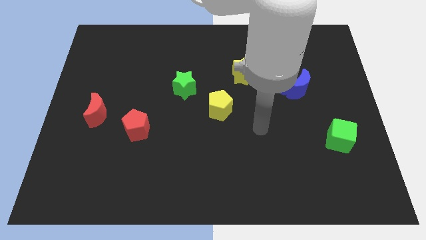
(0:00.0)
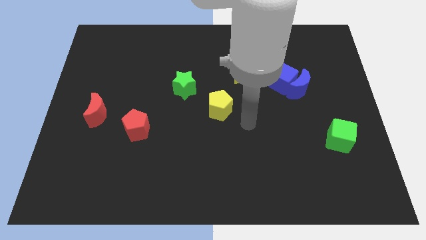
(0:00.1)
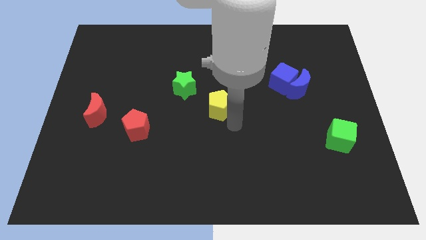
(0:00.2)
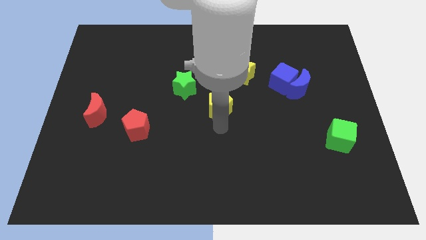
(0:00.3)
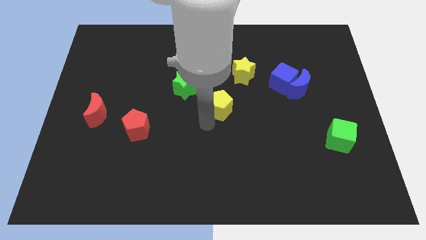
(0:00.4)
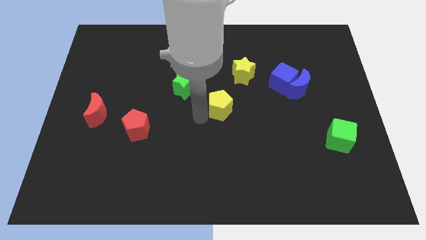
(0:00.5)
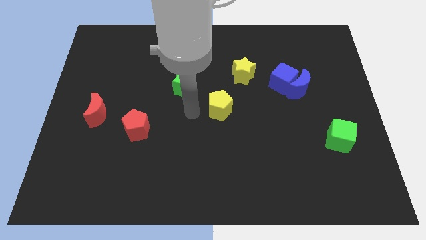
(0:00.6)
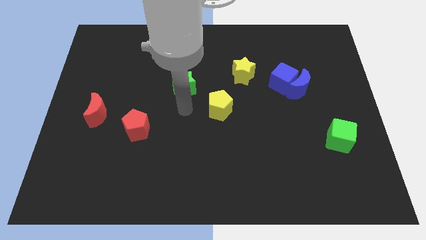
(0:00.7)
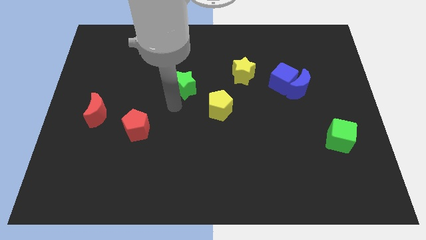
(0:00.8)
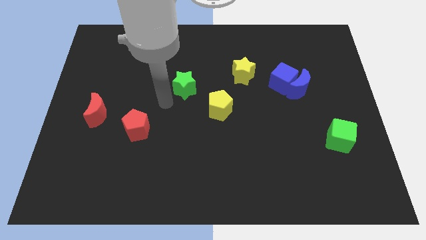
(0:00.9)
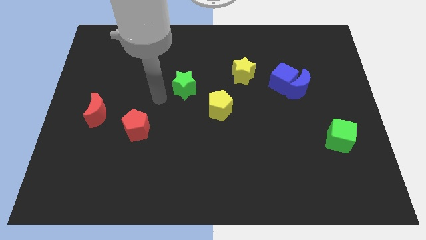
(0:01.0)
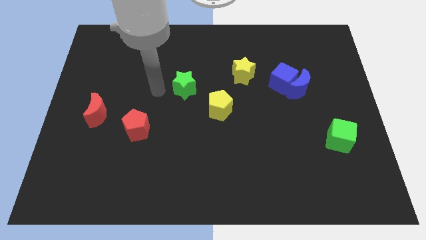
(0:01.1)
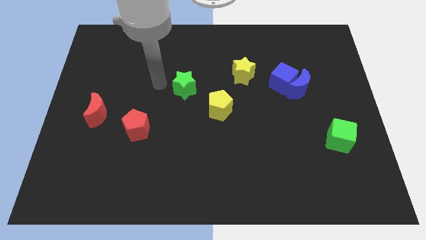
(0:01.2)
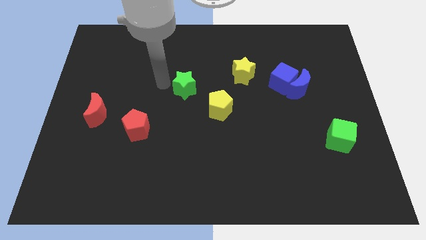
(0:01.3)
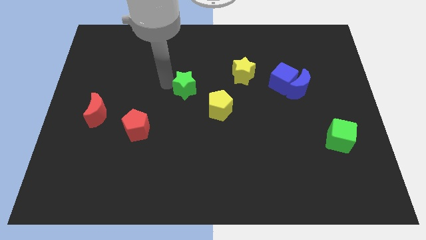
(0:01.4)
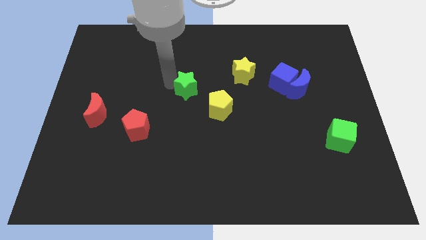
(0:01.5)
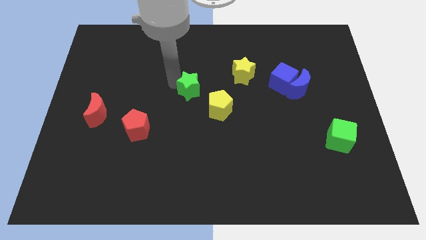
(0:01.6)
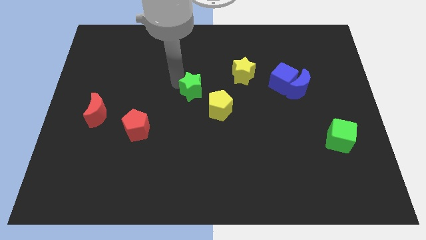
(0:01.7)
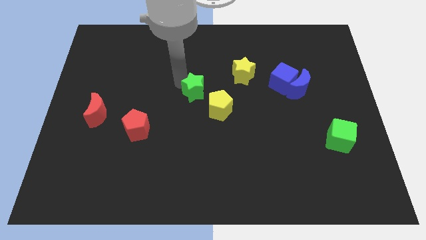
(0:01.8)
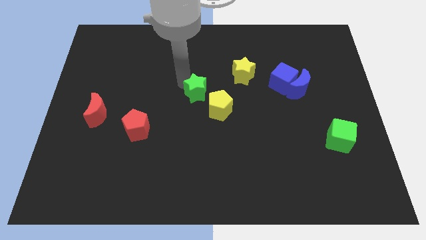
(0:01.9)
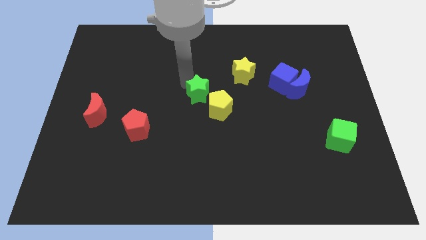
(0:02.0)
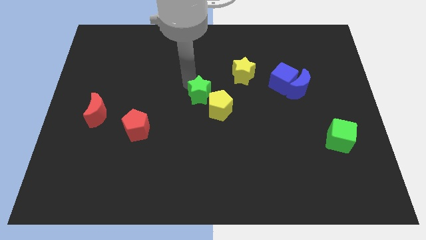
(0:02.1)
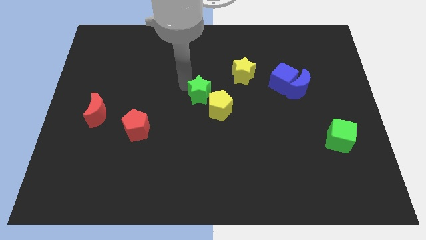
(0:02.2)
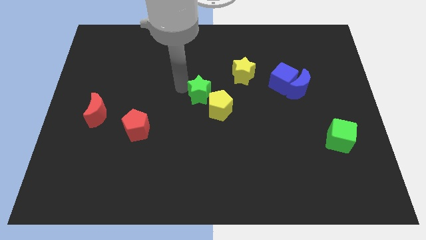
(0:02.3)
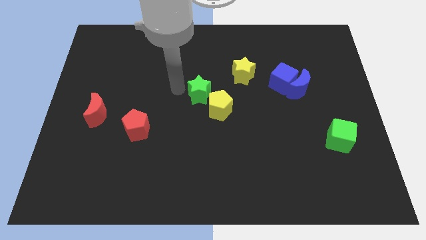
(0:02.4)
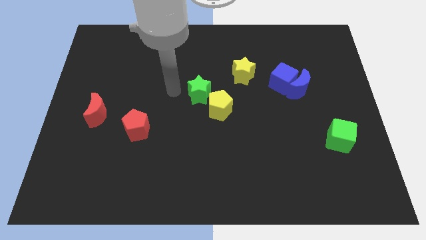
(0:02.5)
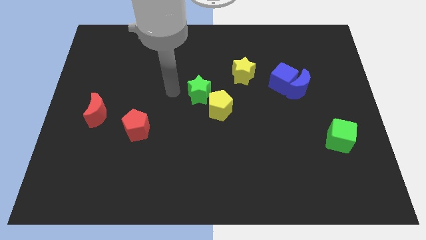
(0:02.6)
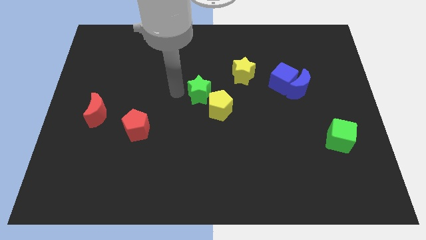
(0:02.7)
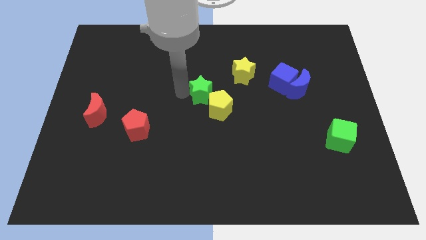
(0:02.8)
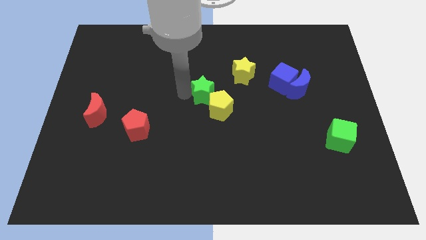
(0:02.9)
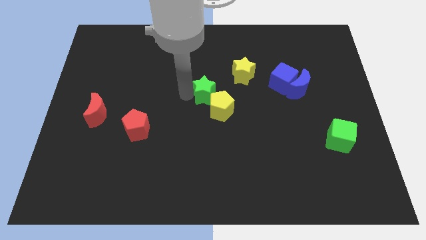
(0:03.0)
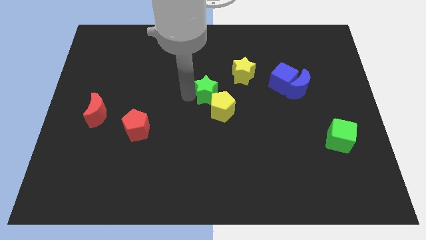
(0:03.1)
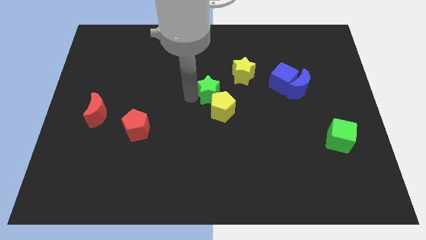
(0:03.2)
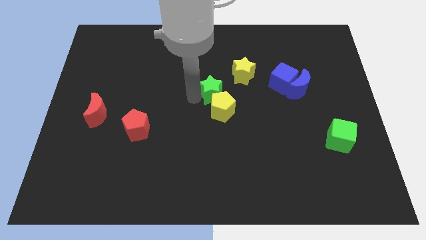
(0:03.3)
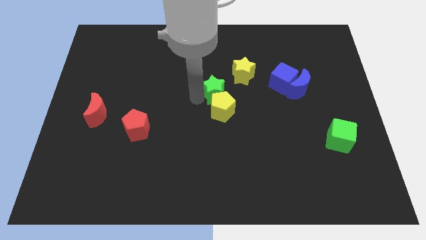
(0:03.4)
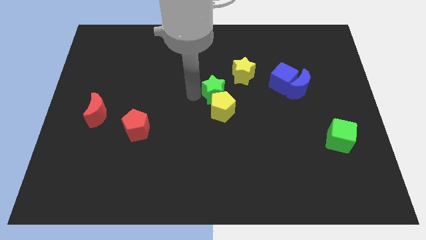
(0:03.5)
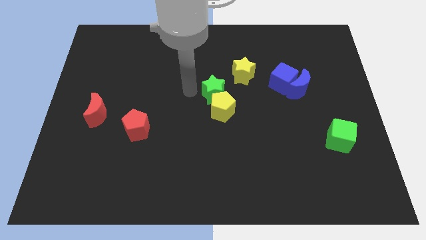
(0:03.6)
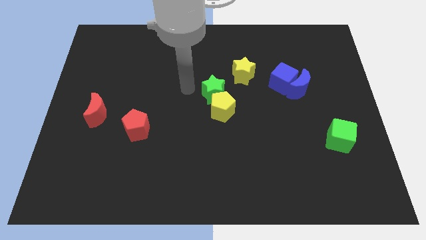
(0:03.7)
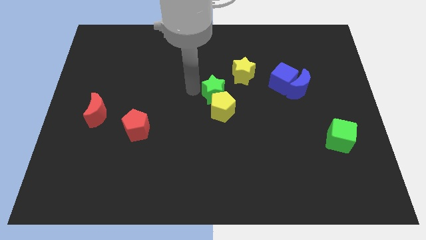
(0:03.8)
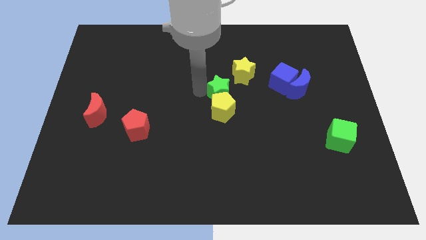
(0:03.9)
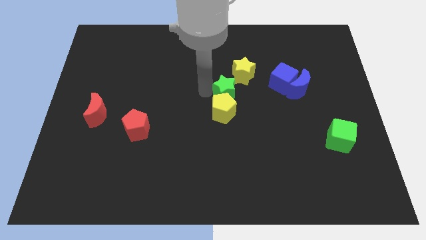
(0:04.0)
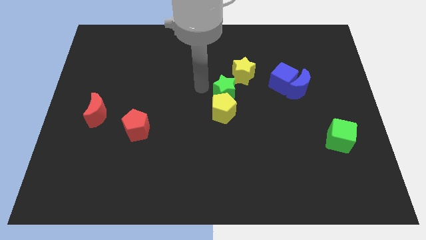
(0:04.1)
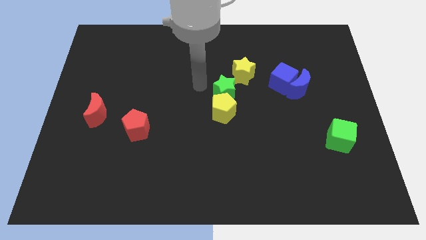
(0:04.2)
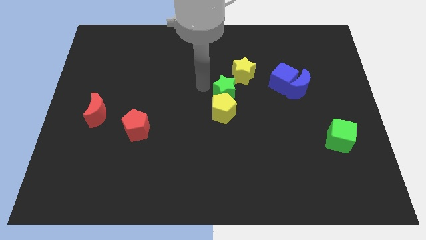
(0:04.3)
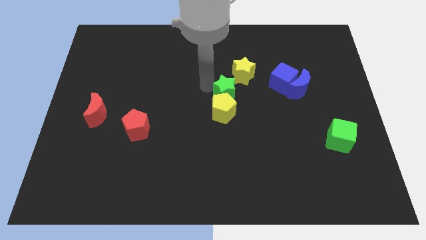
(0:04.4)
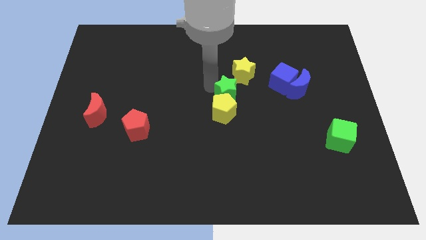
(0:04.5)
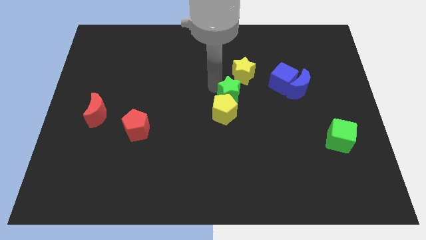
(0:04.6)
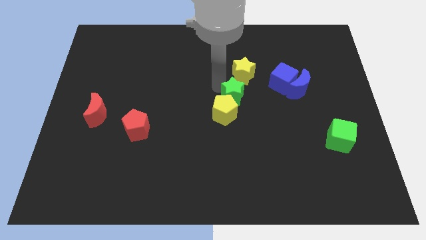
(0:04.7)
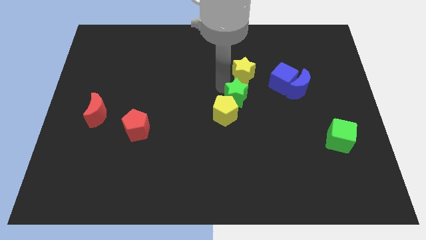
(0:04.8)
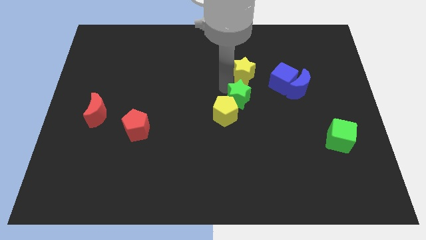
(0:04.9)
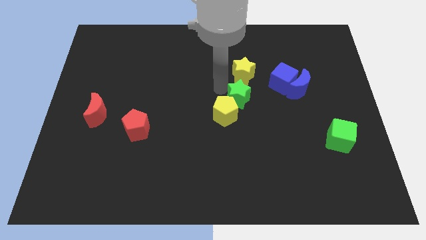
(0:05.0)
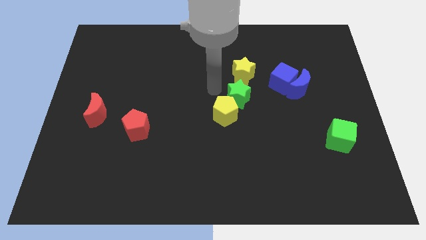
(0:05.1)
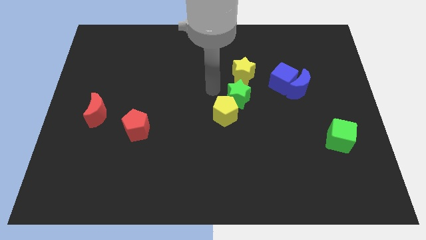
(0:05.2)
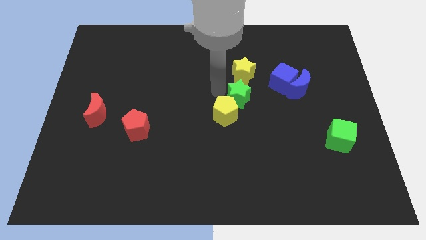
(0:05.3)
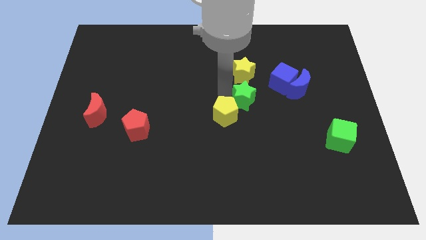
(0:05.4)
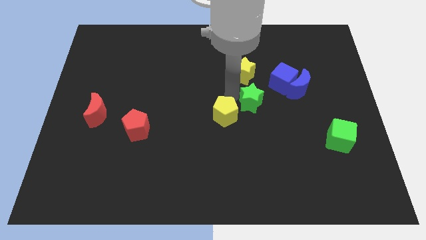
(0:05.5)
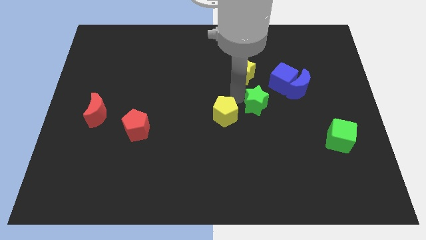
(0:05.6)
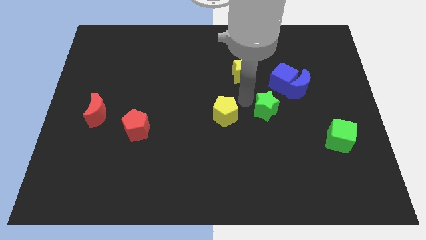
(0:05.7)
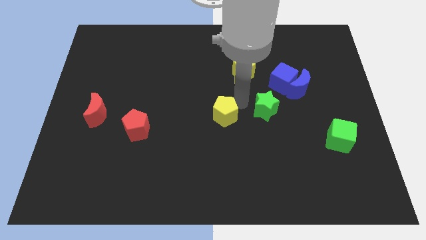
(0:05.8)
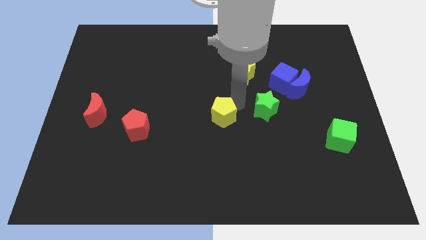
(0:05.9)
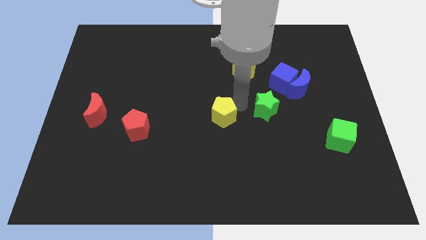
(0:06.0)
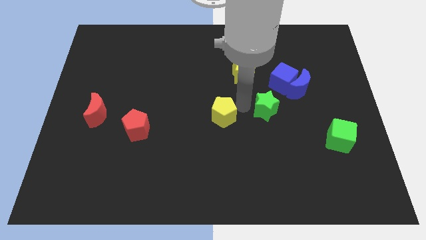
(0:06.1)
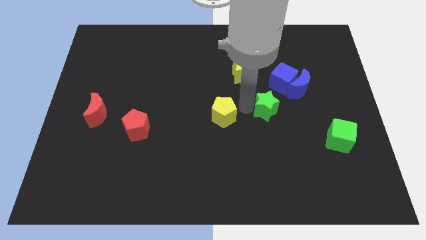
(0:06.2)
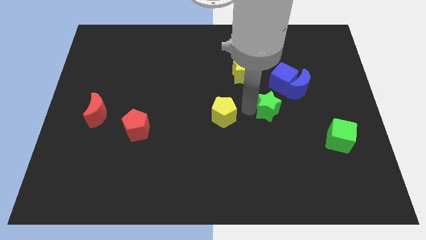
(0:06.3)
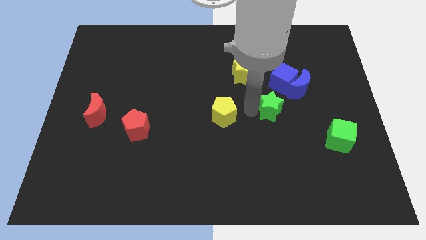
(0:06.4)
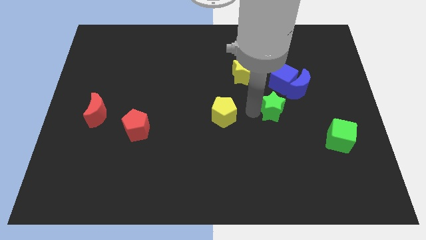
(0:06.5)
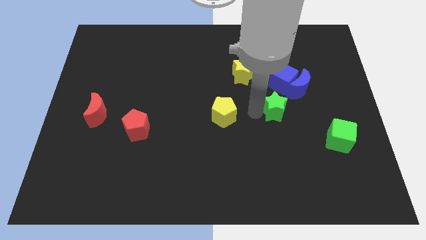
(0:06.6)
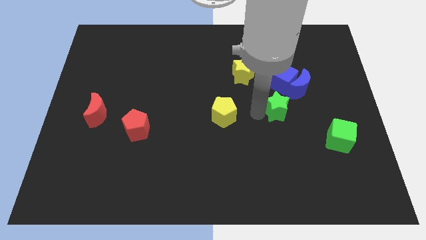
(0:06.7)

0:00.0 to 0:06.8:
push the green star to the right

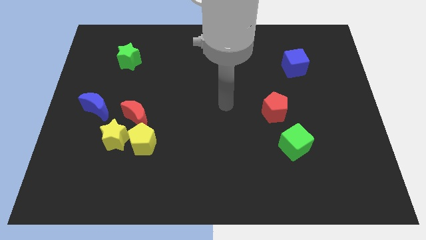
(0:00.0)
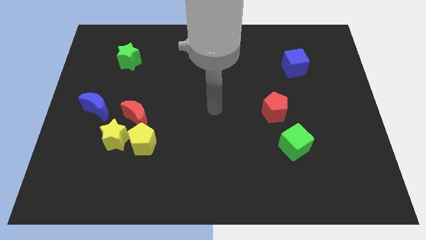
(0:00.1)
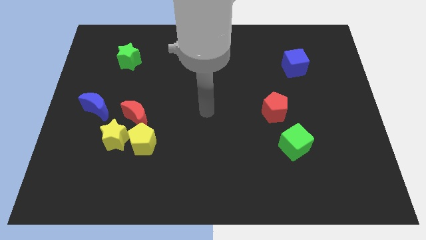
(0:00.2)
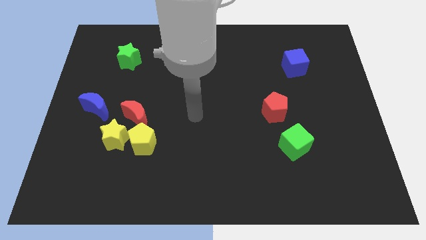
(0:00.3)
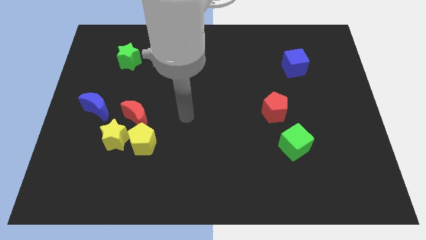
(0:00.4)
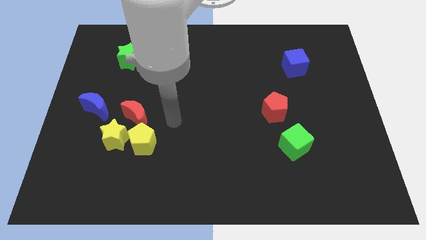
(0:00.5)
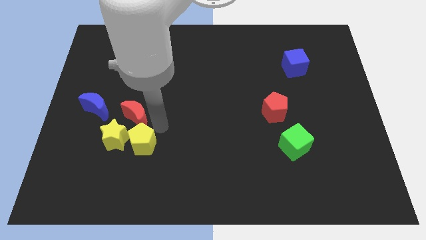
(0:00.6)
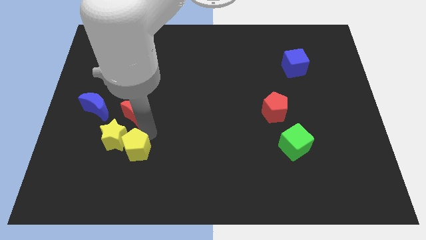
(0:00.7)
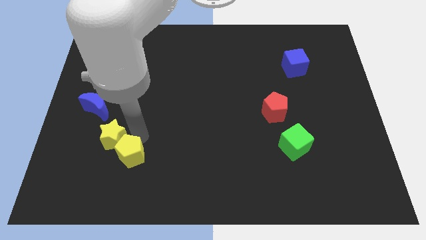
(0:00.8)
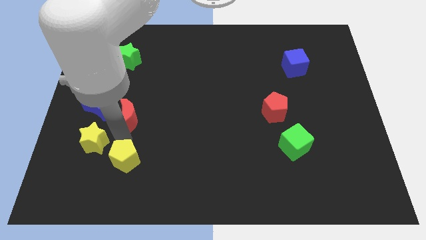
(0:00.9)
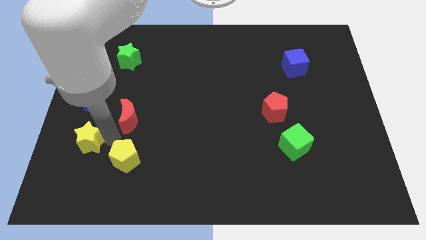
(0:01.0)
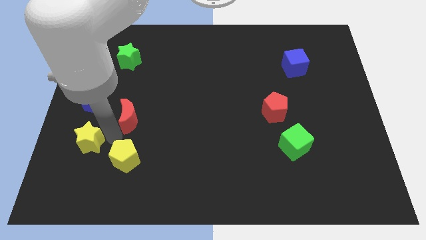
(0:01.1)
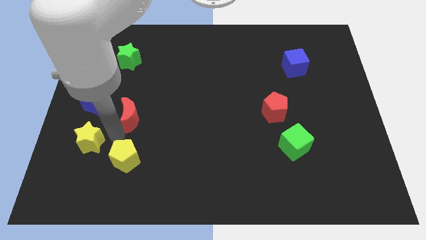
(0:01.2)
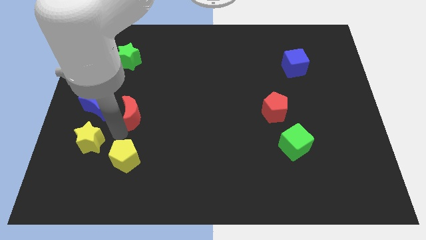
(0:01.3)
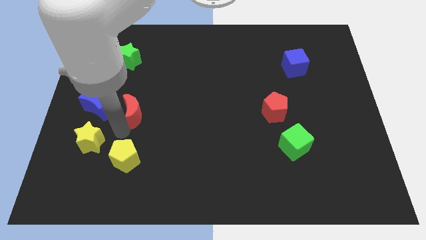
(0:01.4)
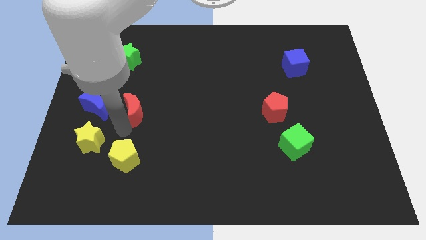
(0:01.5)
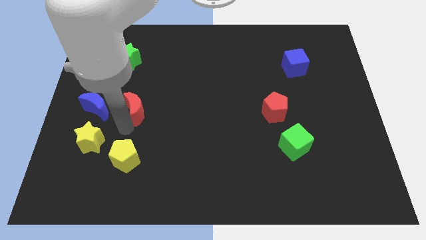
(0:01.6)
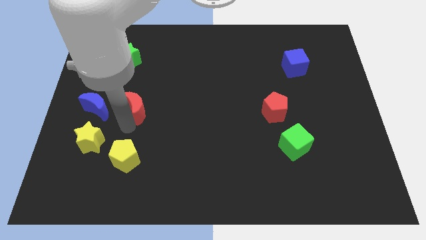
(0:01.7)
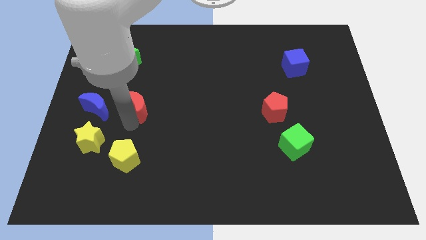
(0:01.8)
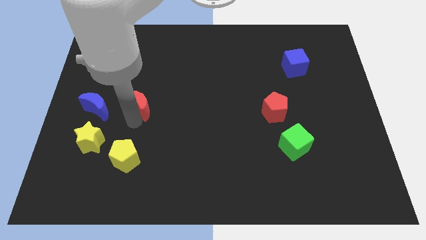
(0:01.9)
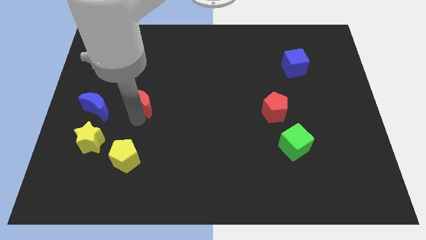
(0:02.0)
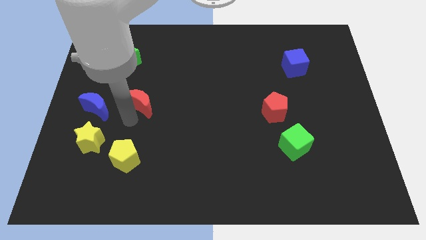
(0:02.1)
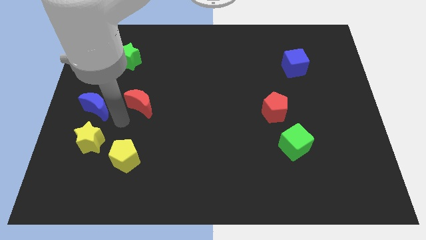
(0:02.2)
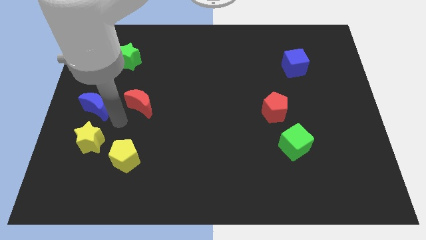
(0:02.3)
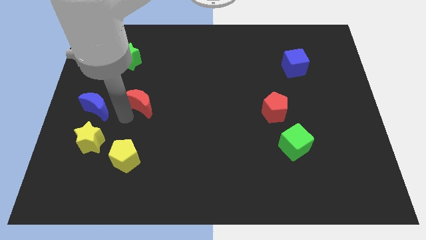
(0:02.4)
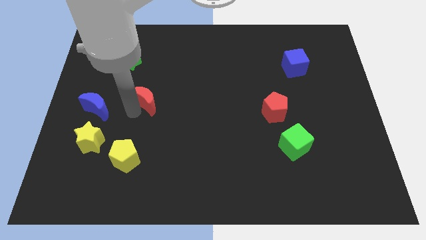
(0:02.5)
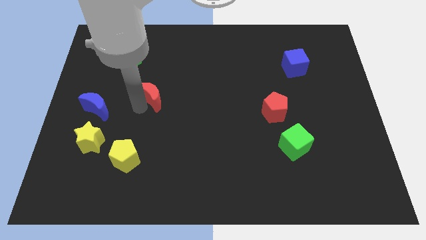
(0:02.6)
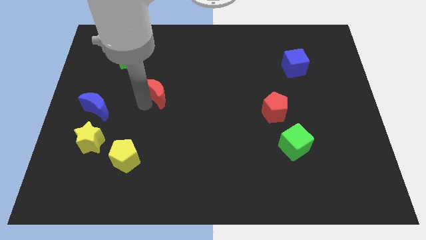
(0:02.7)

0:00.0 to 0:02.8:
slide the red moon up and right diagonally a bit
